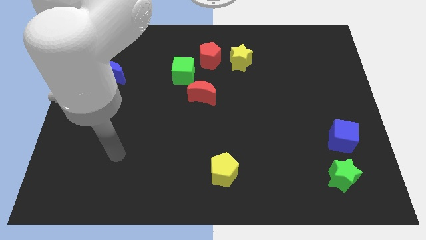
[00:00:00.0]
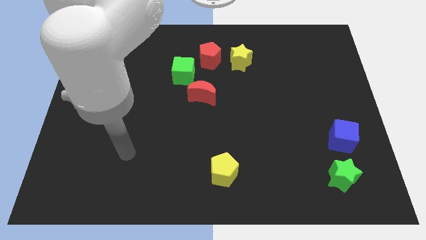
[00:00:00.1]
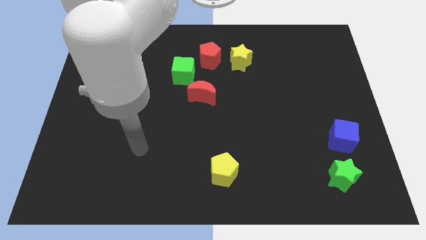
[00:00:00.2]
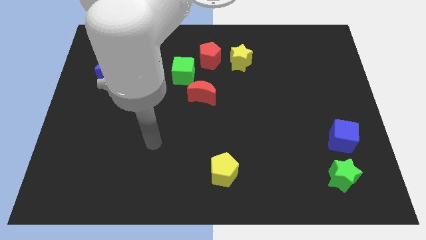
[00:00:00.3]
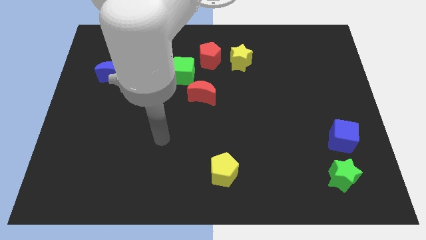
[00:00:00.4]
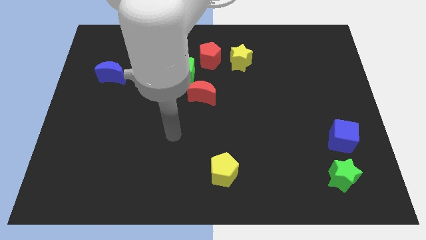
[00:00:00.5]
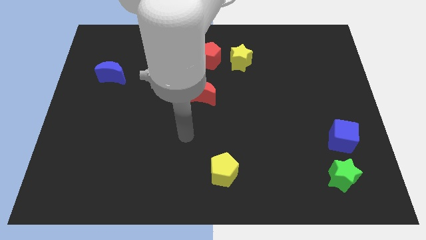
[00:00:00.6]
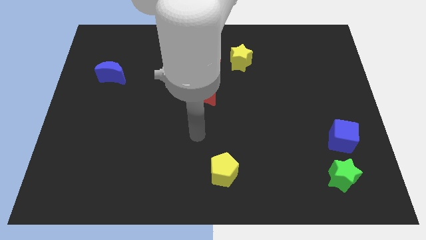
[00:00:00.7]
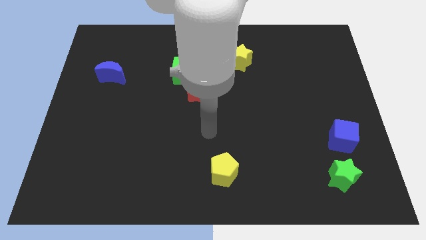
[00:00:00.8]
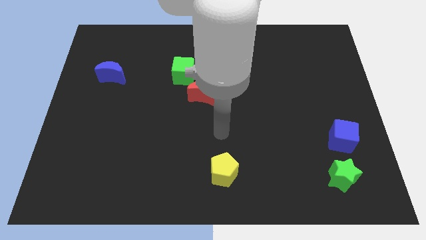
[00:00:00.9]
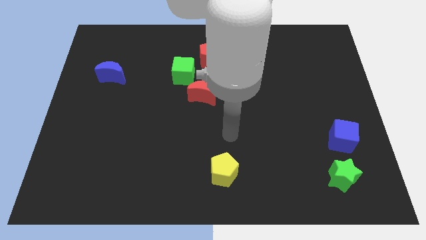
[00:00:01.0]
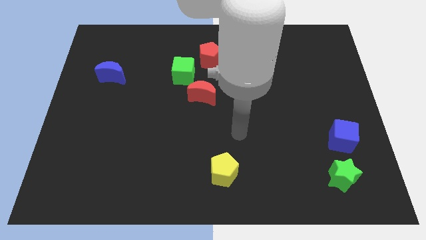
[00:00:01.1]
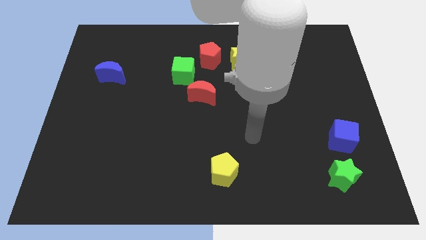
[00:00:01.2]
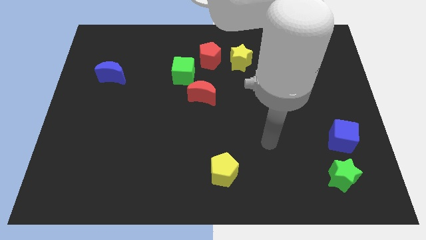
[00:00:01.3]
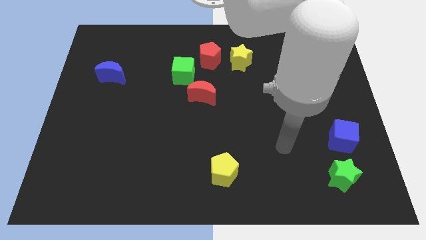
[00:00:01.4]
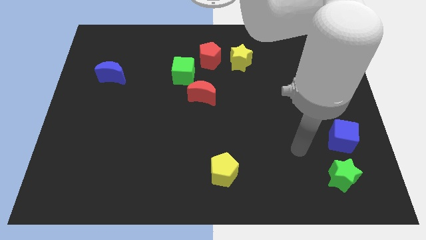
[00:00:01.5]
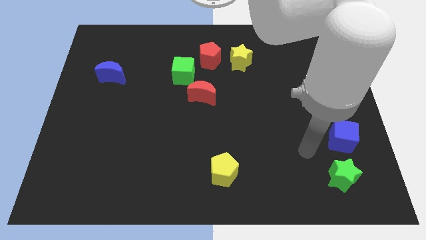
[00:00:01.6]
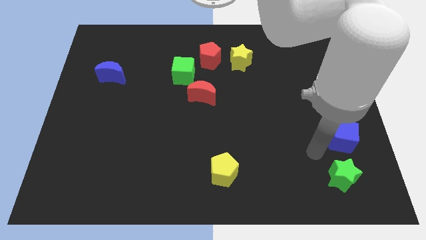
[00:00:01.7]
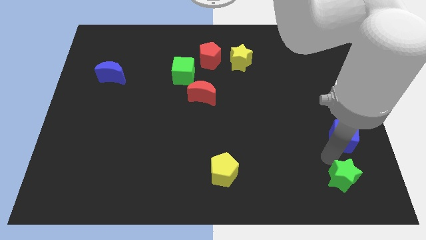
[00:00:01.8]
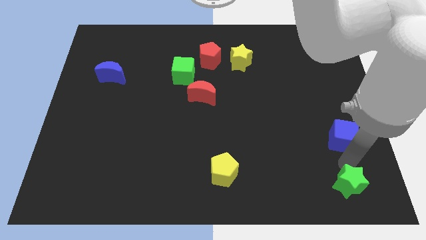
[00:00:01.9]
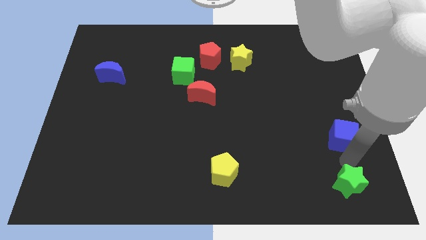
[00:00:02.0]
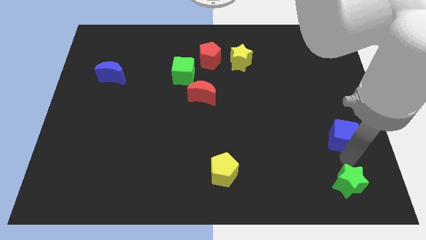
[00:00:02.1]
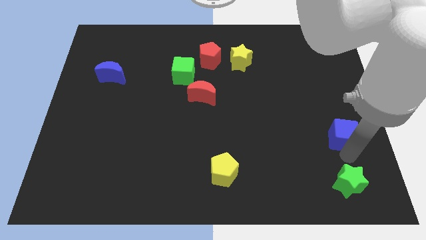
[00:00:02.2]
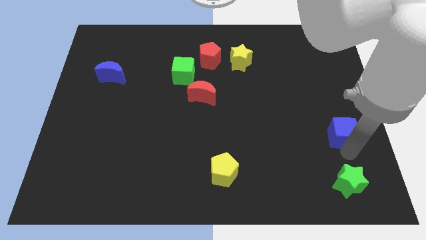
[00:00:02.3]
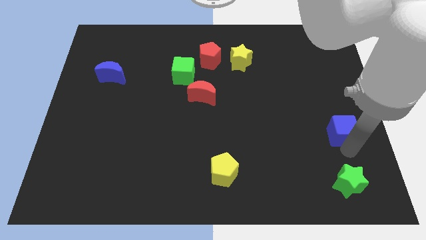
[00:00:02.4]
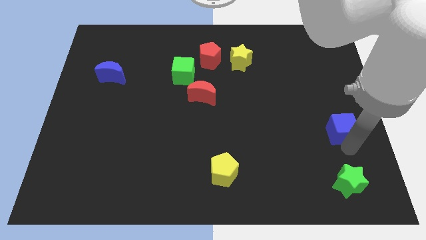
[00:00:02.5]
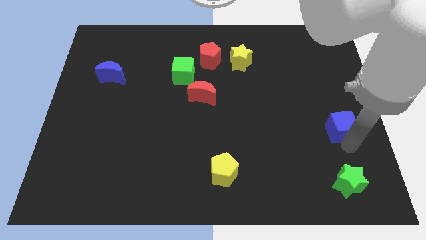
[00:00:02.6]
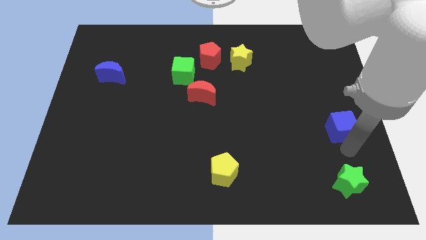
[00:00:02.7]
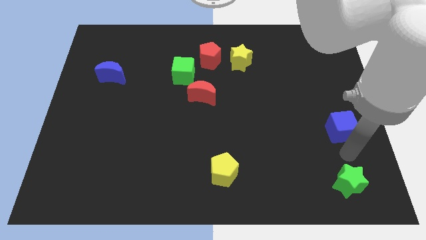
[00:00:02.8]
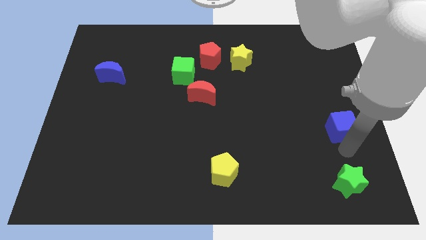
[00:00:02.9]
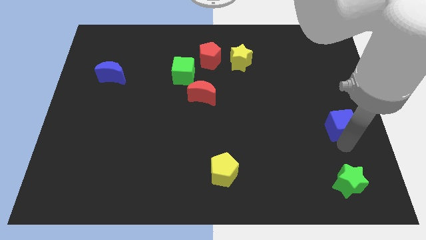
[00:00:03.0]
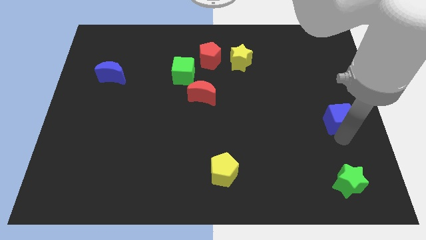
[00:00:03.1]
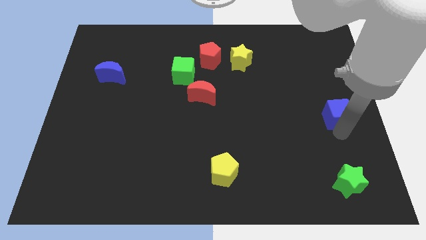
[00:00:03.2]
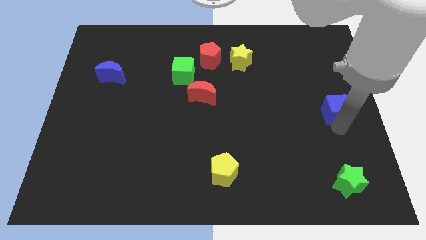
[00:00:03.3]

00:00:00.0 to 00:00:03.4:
slightly move the blue cube upwards

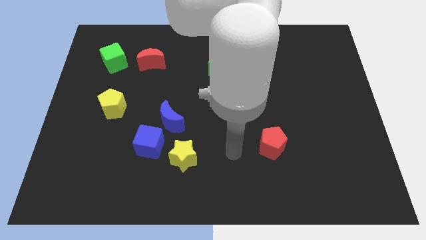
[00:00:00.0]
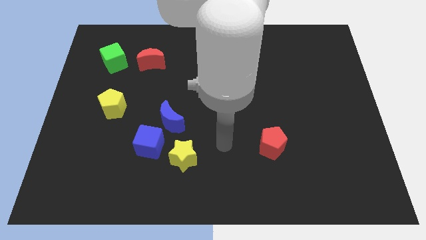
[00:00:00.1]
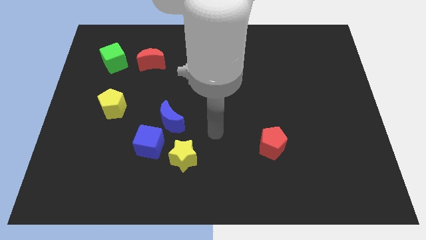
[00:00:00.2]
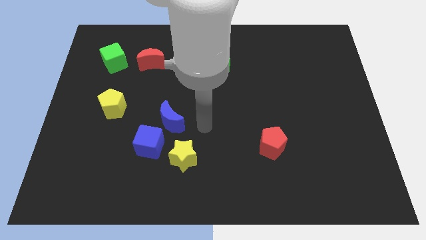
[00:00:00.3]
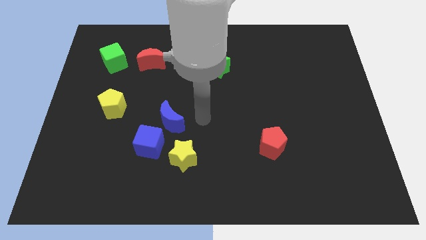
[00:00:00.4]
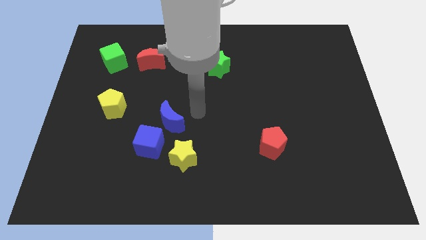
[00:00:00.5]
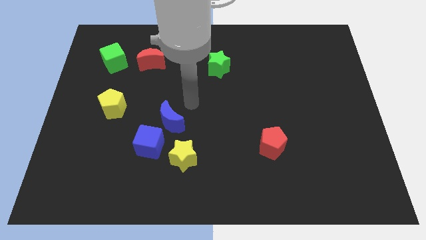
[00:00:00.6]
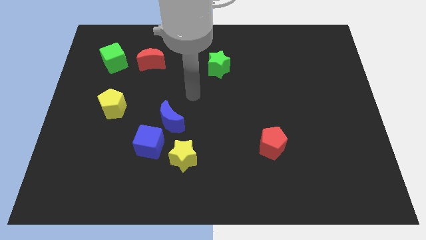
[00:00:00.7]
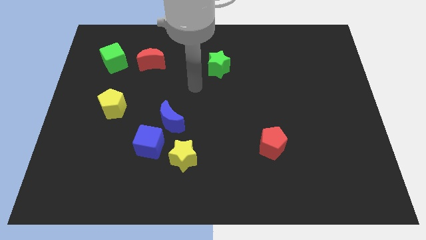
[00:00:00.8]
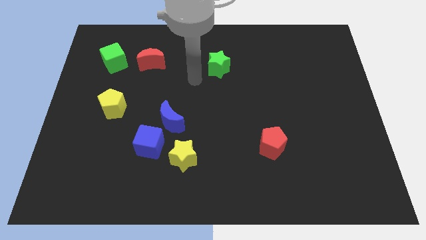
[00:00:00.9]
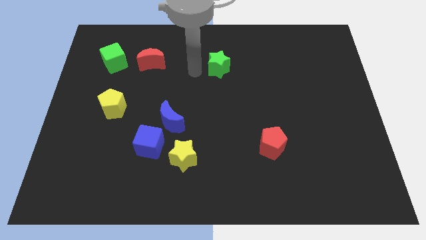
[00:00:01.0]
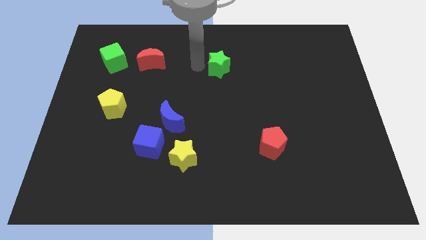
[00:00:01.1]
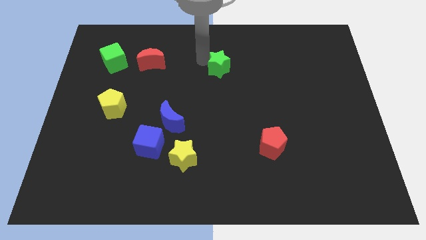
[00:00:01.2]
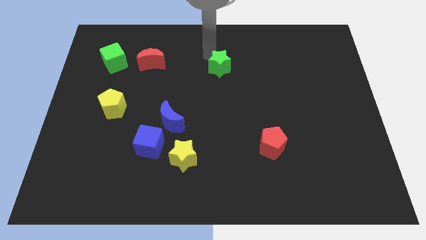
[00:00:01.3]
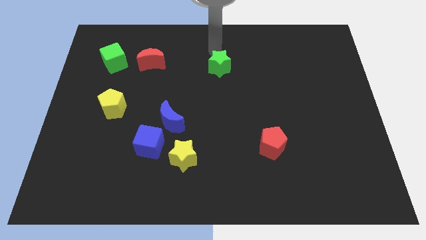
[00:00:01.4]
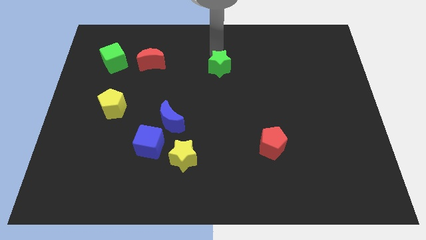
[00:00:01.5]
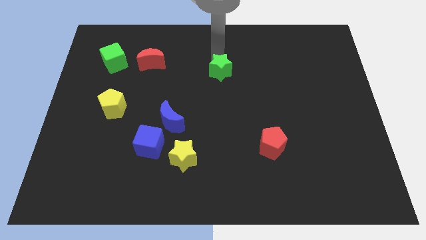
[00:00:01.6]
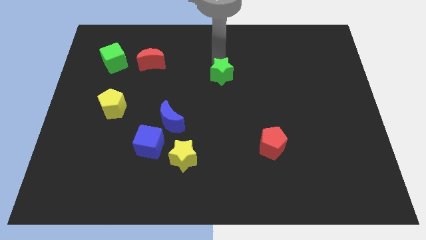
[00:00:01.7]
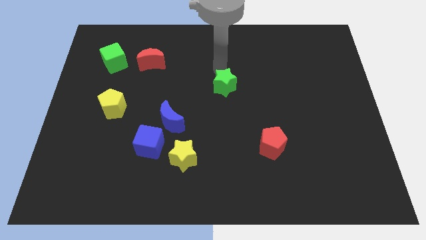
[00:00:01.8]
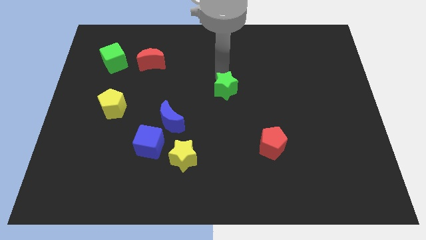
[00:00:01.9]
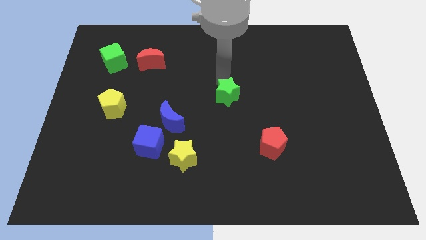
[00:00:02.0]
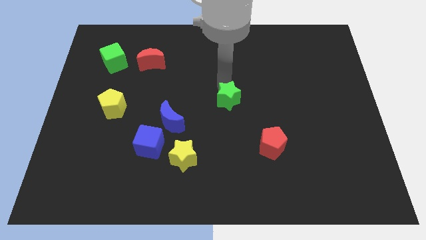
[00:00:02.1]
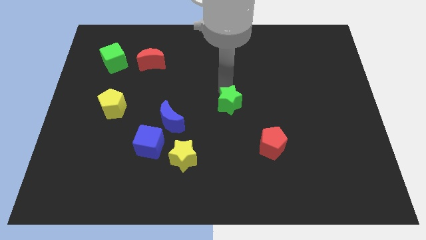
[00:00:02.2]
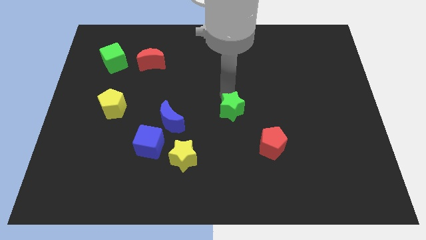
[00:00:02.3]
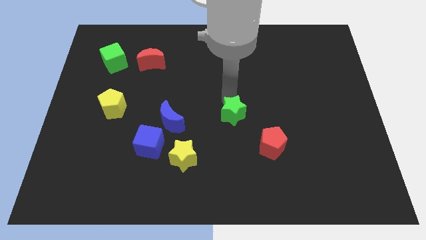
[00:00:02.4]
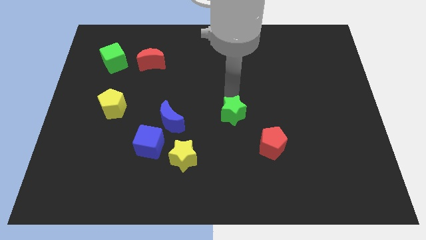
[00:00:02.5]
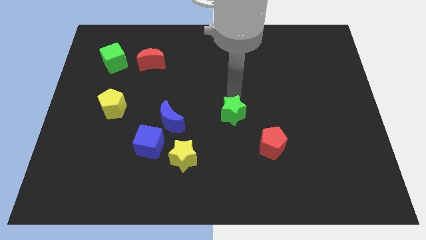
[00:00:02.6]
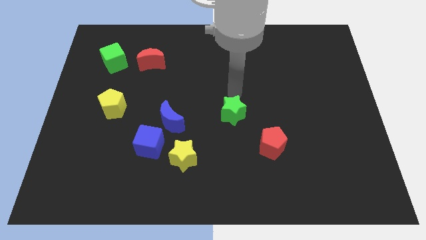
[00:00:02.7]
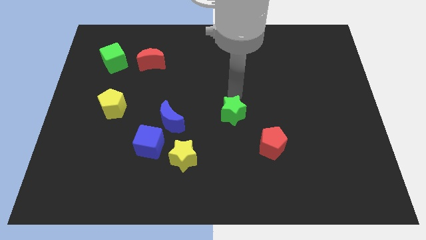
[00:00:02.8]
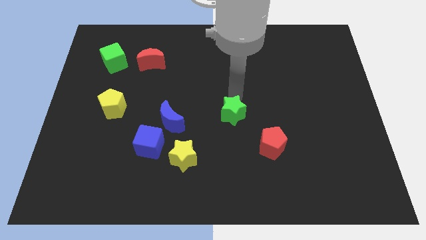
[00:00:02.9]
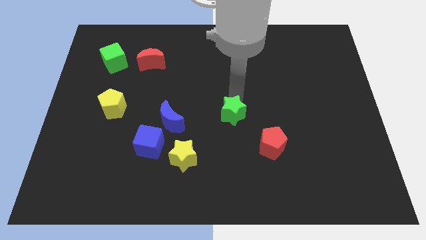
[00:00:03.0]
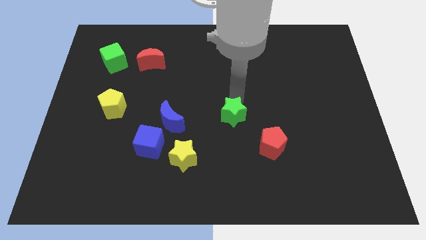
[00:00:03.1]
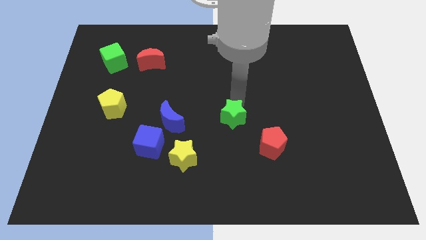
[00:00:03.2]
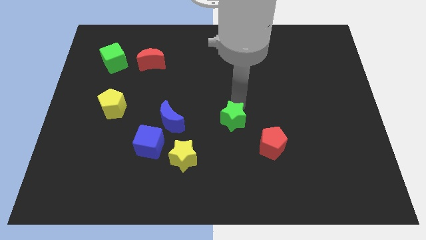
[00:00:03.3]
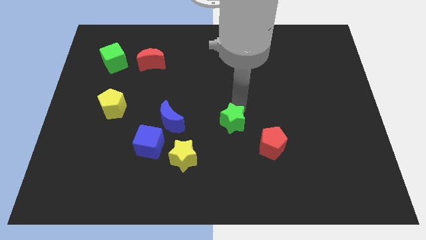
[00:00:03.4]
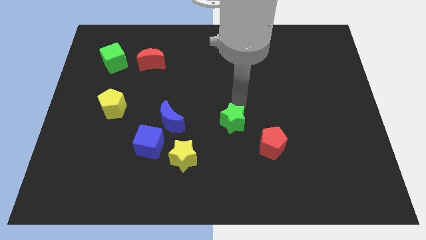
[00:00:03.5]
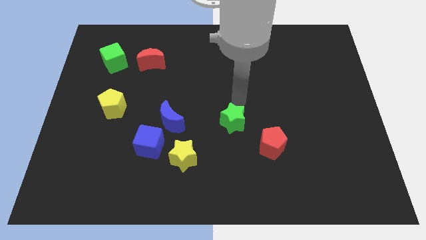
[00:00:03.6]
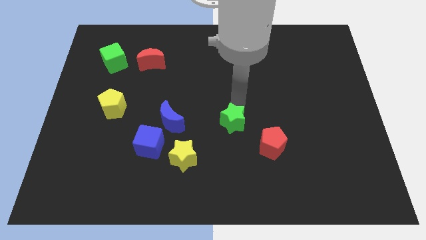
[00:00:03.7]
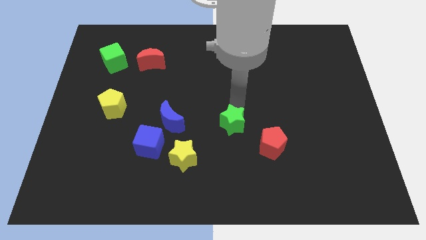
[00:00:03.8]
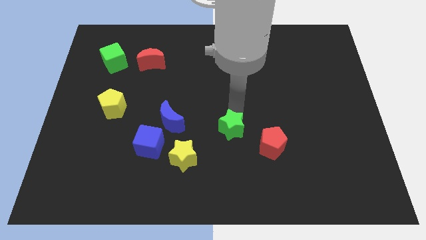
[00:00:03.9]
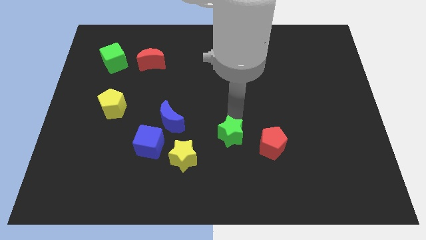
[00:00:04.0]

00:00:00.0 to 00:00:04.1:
push the green star down
